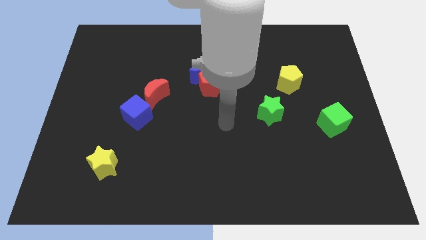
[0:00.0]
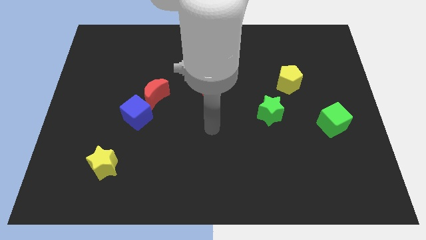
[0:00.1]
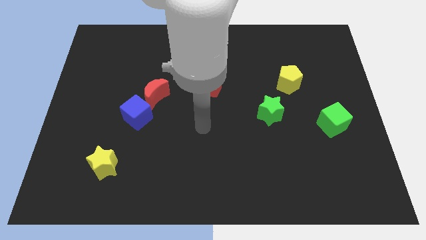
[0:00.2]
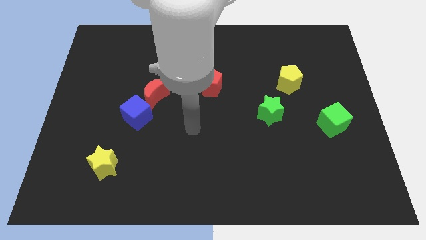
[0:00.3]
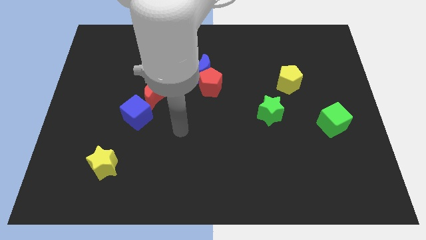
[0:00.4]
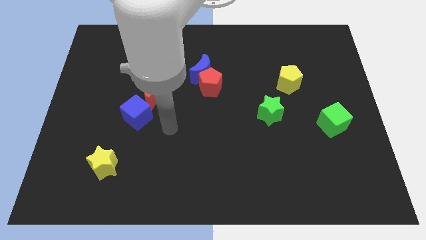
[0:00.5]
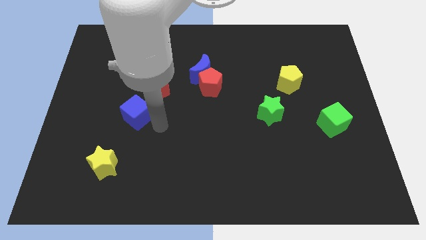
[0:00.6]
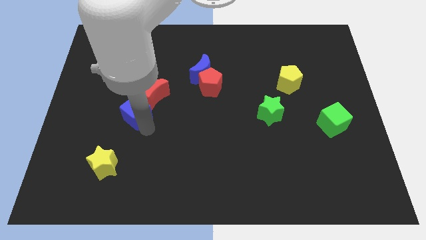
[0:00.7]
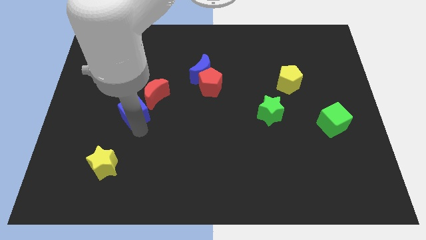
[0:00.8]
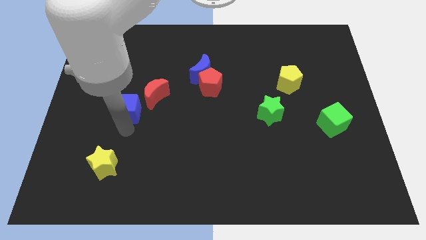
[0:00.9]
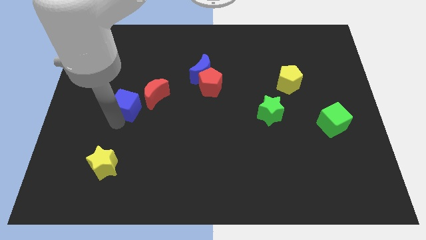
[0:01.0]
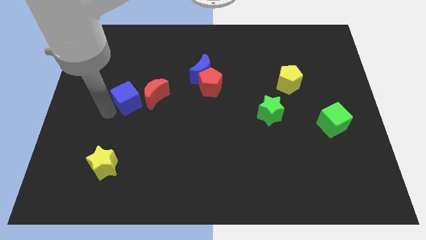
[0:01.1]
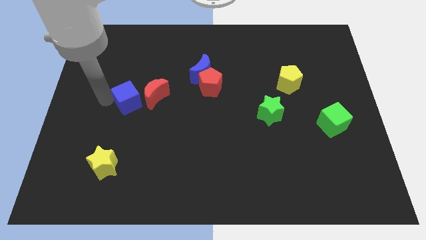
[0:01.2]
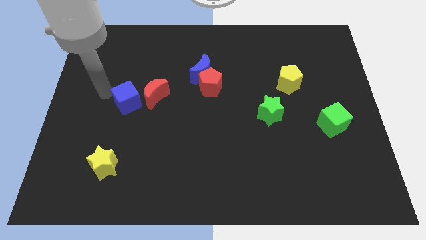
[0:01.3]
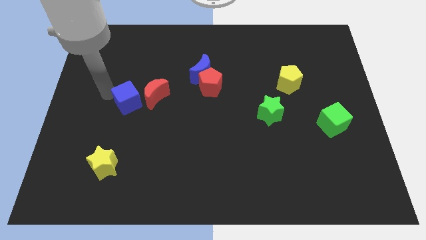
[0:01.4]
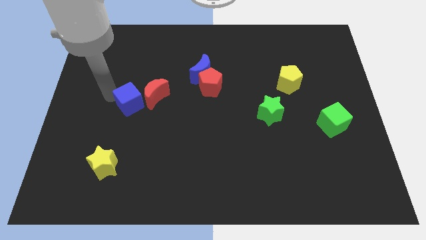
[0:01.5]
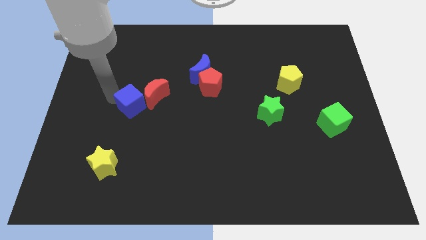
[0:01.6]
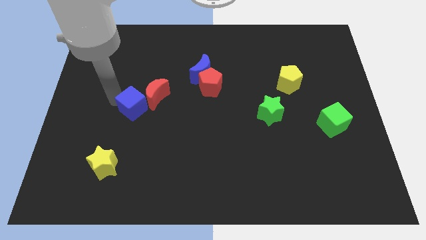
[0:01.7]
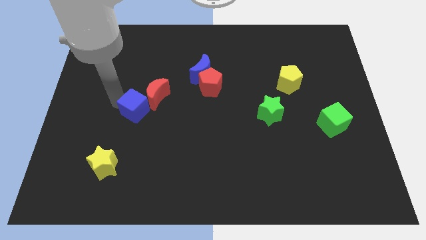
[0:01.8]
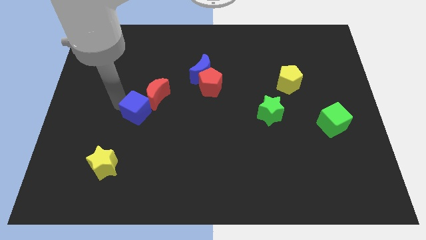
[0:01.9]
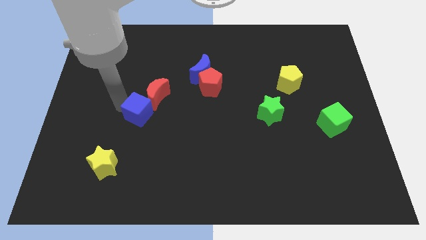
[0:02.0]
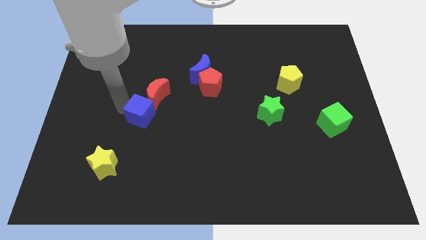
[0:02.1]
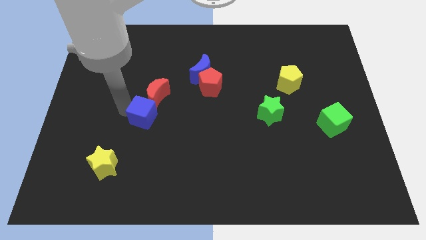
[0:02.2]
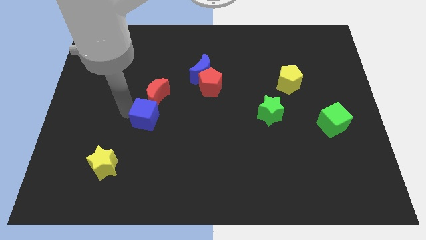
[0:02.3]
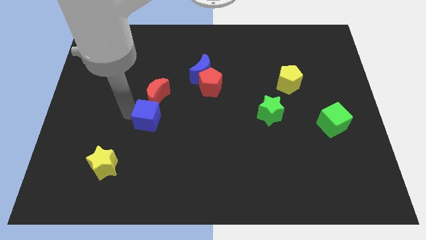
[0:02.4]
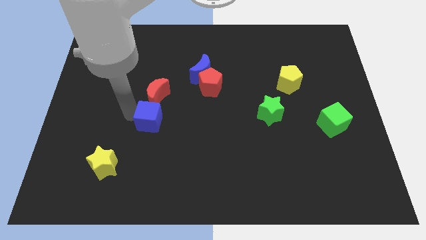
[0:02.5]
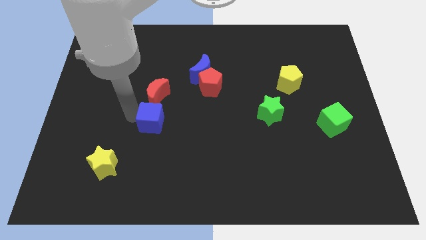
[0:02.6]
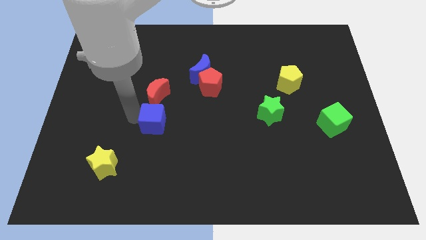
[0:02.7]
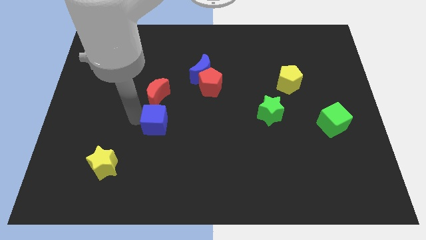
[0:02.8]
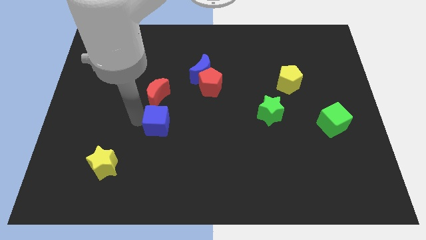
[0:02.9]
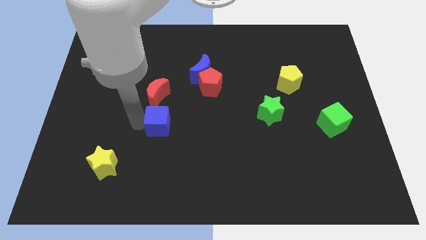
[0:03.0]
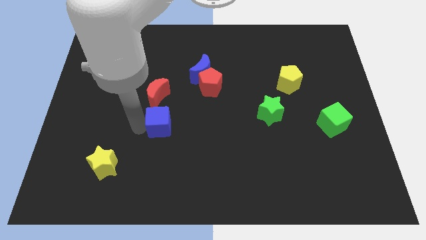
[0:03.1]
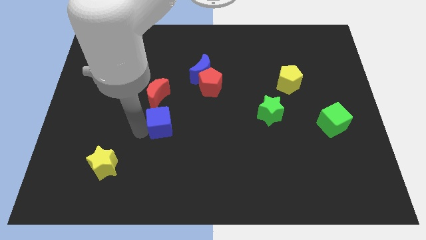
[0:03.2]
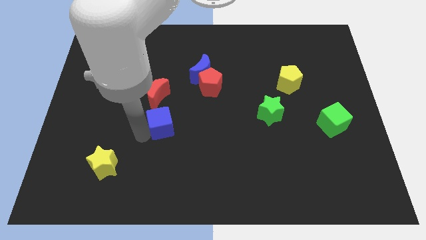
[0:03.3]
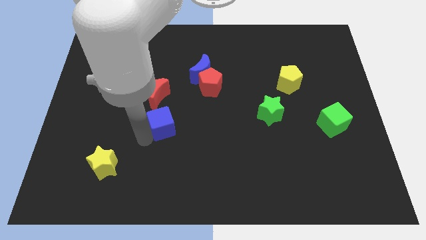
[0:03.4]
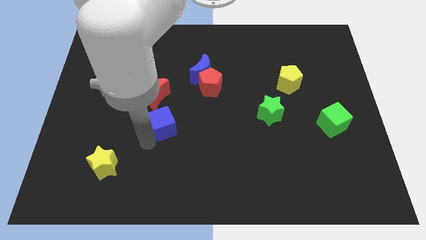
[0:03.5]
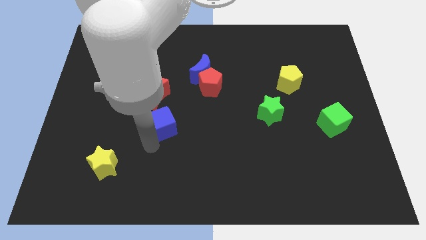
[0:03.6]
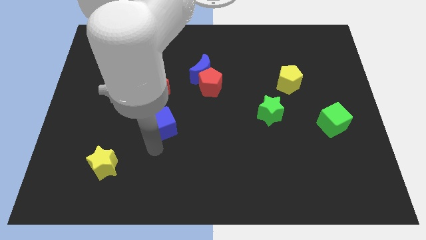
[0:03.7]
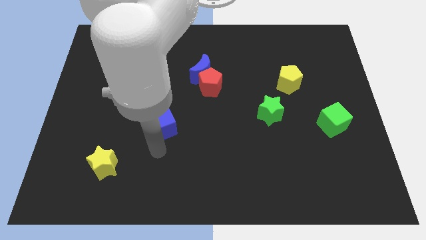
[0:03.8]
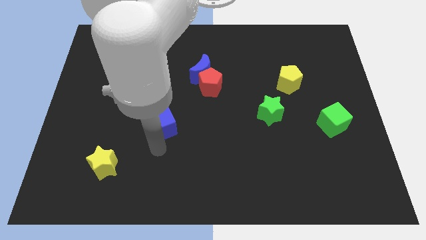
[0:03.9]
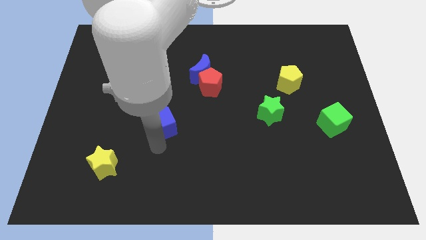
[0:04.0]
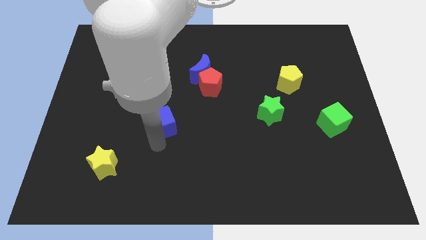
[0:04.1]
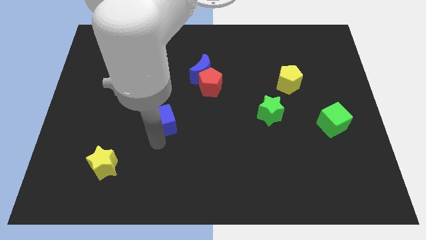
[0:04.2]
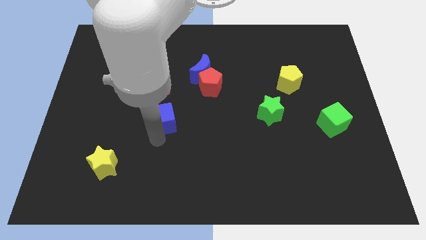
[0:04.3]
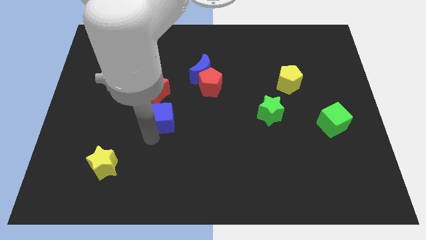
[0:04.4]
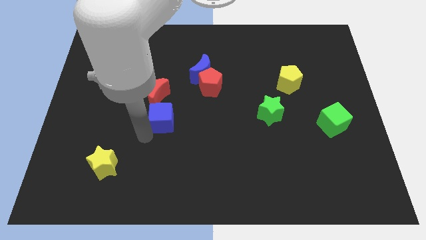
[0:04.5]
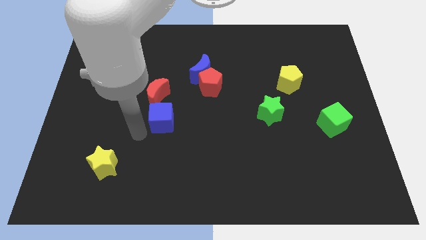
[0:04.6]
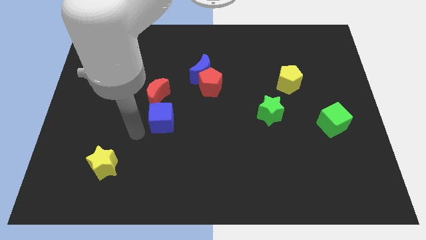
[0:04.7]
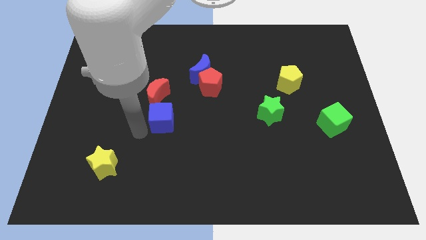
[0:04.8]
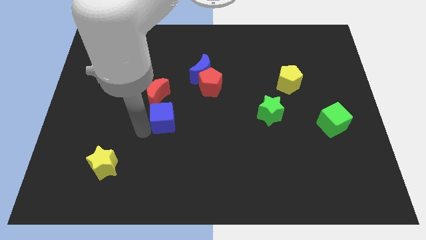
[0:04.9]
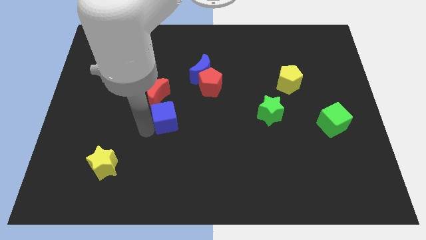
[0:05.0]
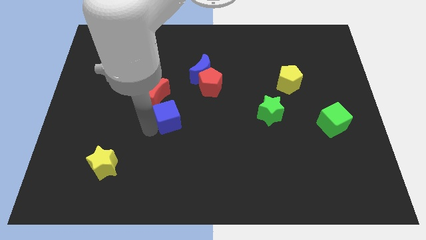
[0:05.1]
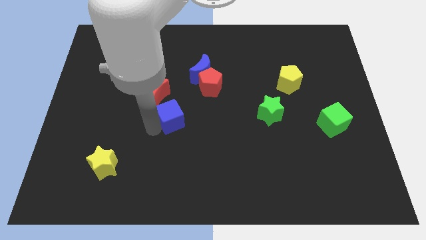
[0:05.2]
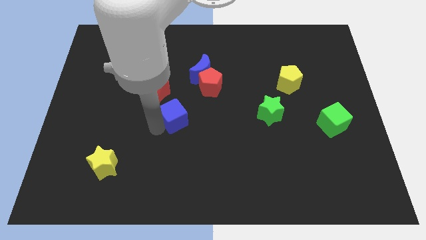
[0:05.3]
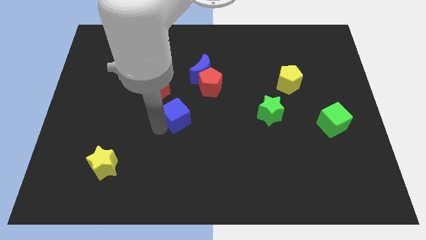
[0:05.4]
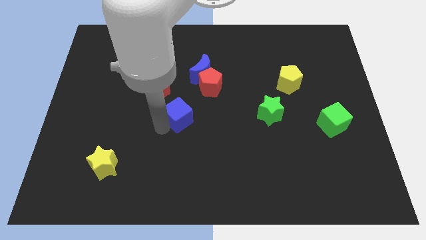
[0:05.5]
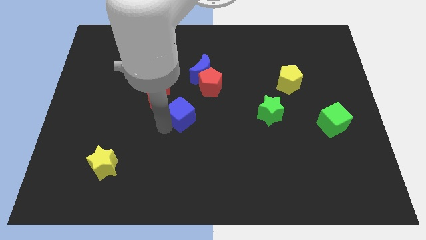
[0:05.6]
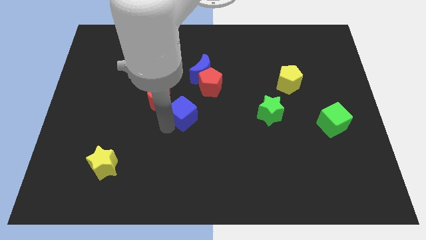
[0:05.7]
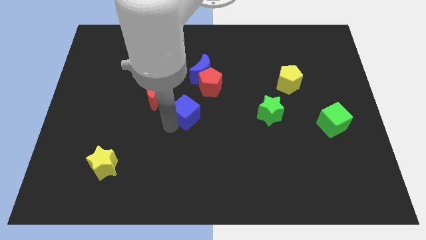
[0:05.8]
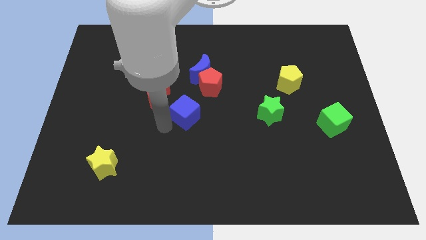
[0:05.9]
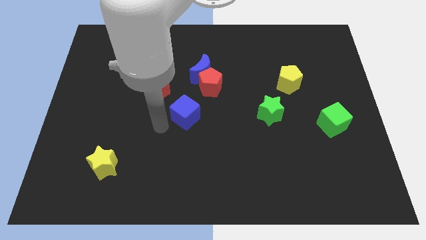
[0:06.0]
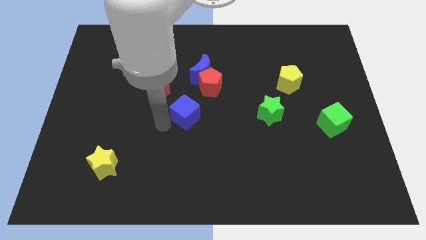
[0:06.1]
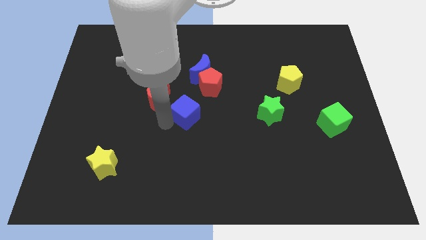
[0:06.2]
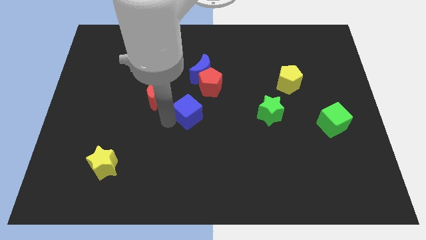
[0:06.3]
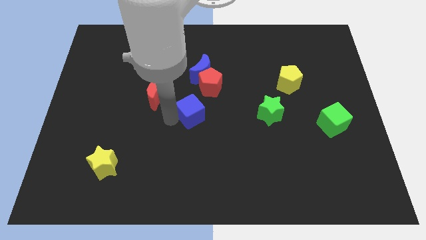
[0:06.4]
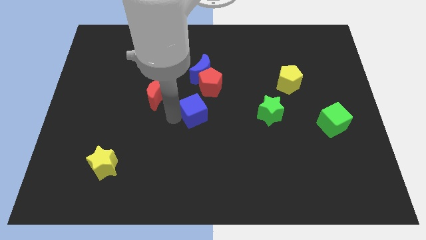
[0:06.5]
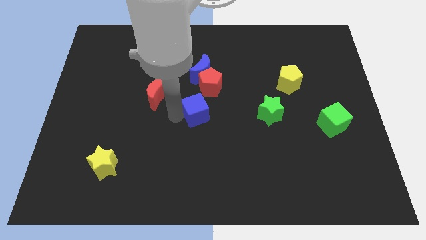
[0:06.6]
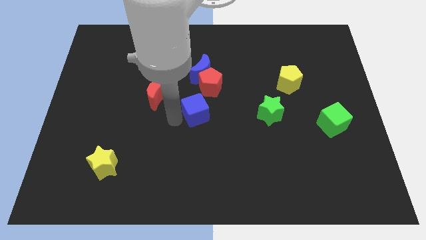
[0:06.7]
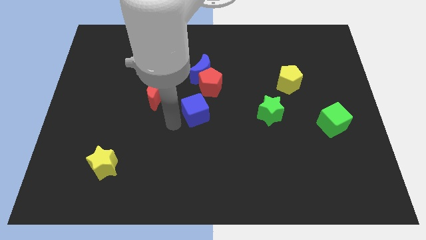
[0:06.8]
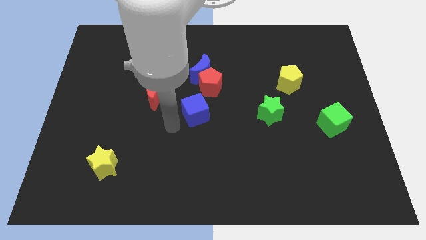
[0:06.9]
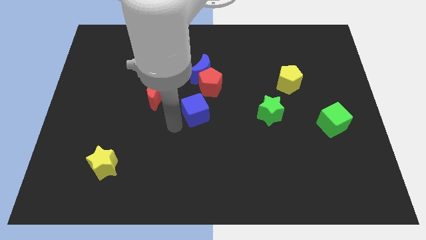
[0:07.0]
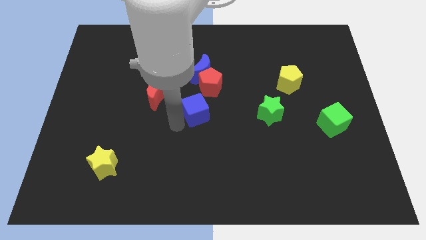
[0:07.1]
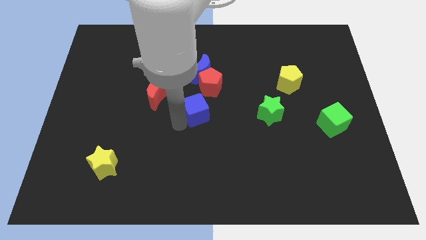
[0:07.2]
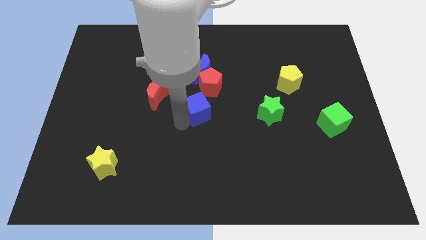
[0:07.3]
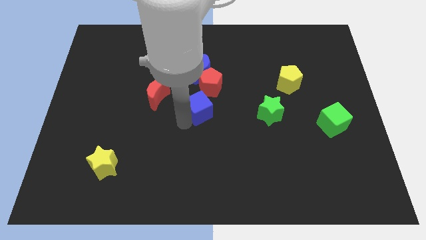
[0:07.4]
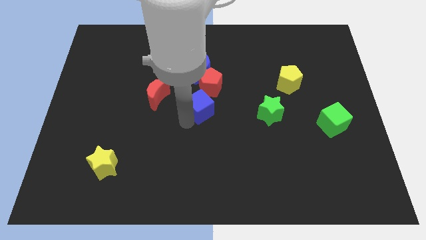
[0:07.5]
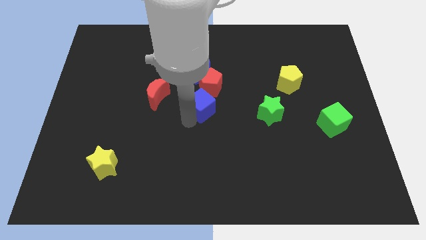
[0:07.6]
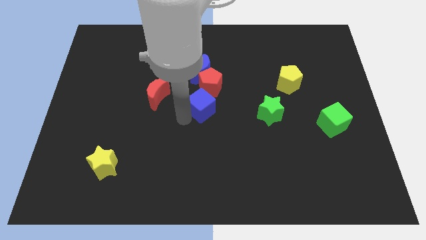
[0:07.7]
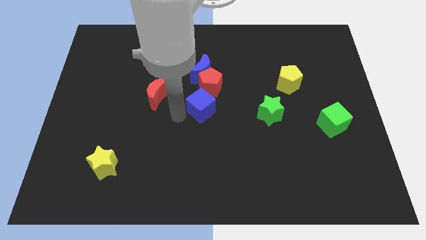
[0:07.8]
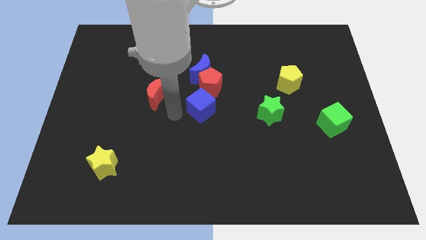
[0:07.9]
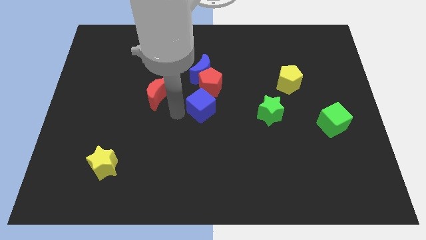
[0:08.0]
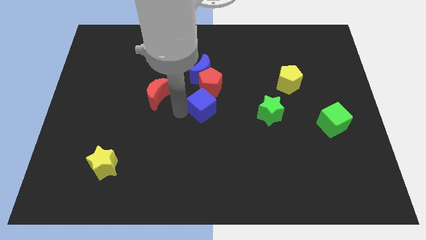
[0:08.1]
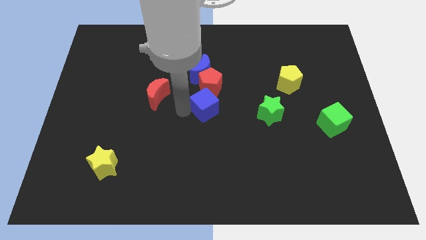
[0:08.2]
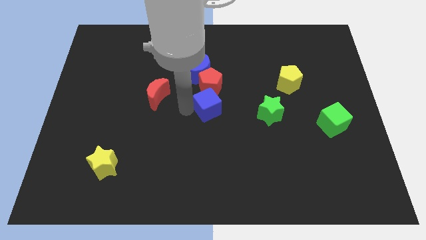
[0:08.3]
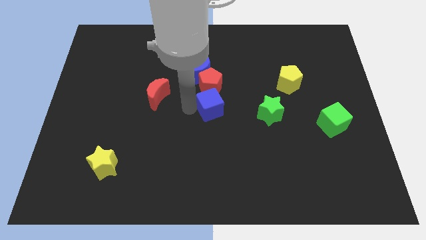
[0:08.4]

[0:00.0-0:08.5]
push the blue cube diagonally down and to the right of the red pentagon
